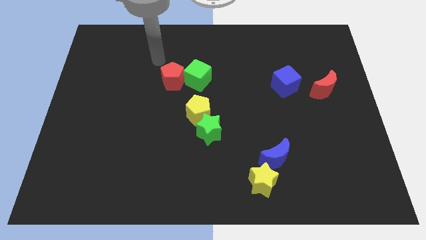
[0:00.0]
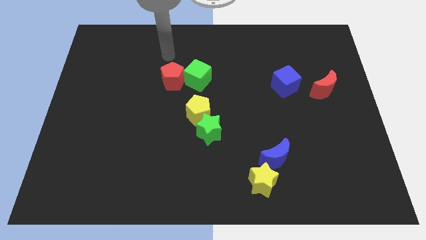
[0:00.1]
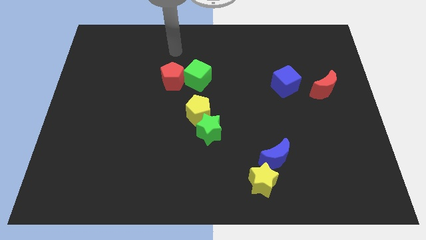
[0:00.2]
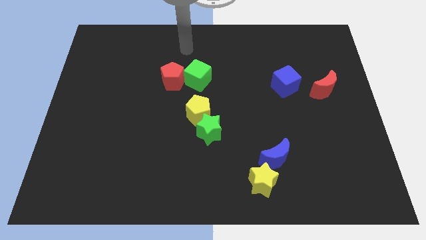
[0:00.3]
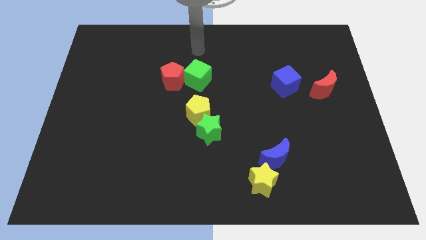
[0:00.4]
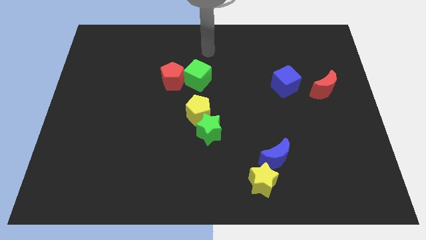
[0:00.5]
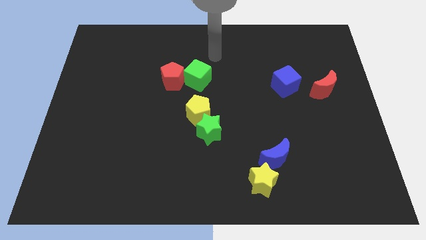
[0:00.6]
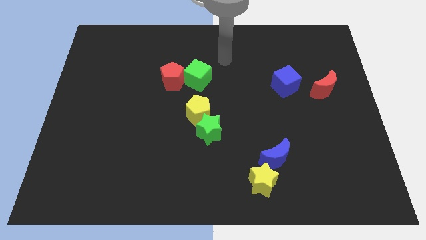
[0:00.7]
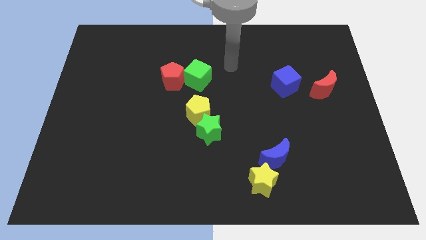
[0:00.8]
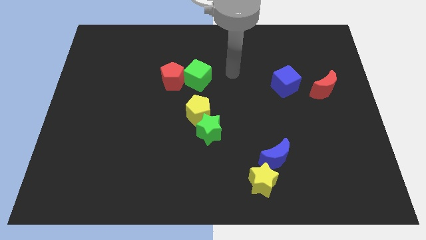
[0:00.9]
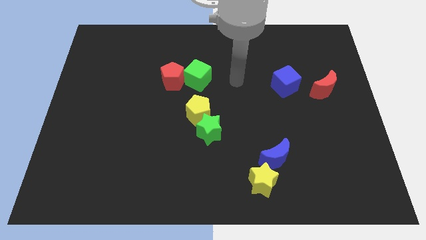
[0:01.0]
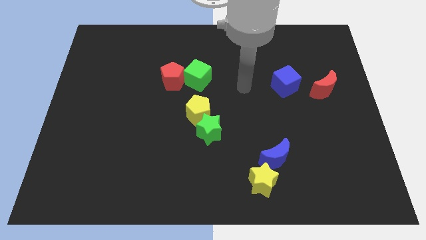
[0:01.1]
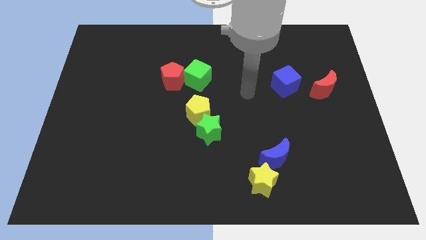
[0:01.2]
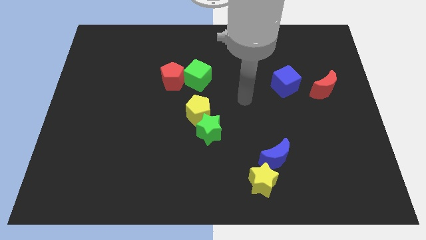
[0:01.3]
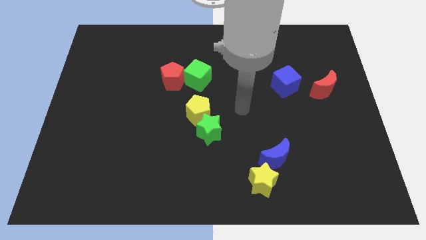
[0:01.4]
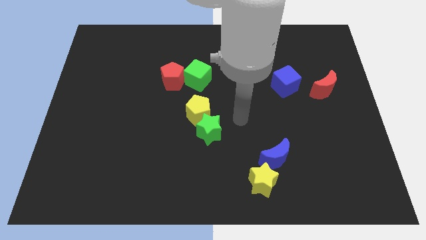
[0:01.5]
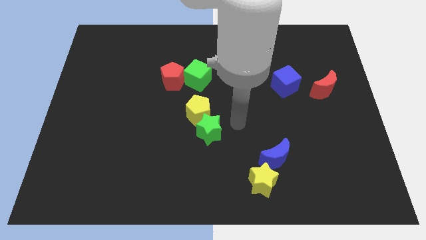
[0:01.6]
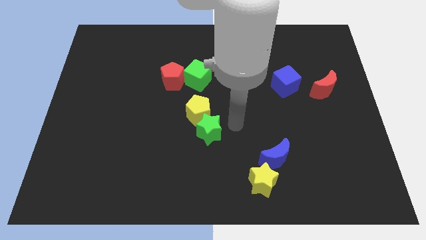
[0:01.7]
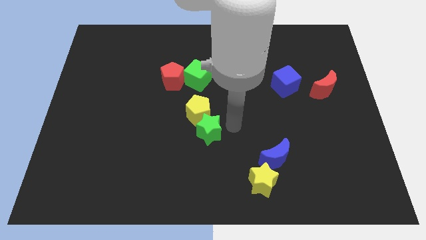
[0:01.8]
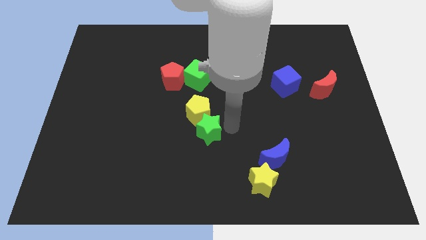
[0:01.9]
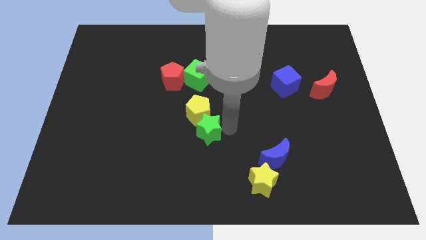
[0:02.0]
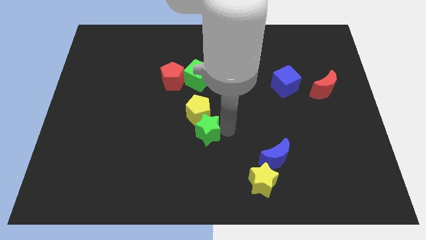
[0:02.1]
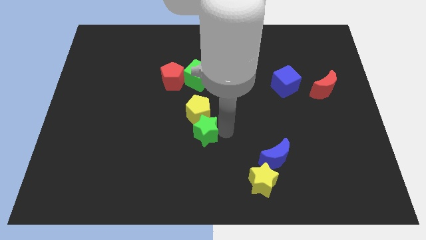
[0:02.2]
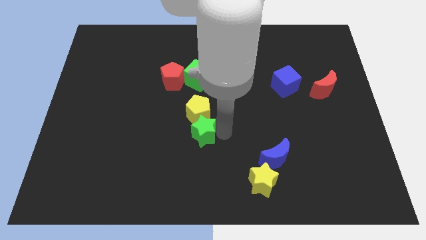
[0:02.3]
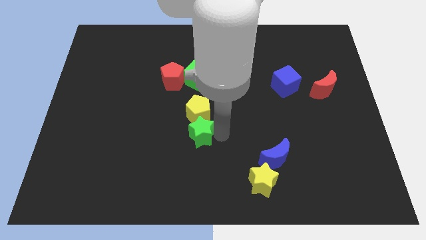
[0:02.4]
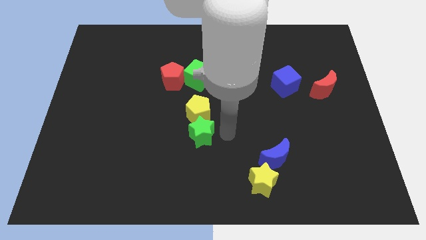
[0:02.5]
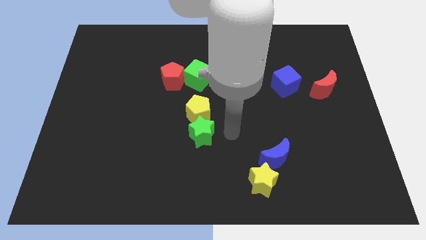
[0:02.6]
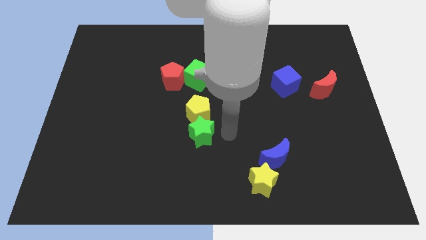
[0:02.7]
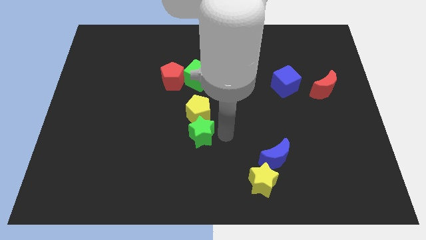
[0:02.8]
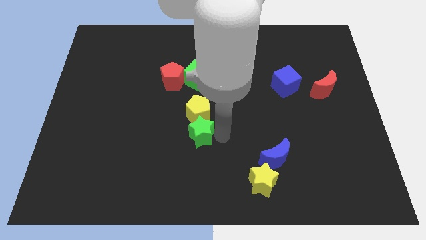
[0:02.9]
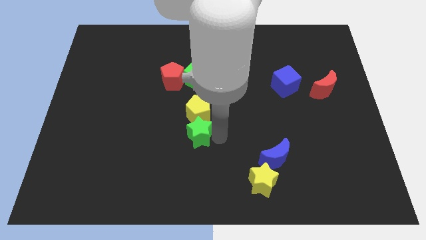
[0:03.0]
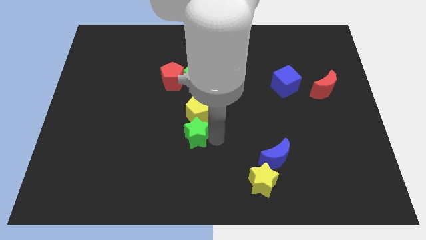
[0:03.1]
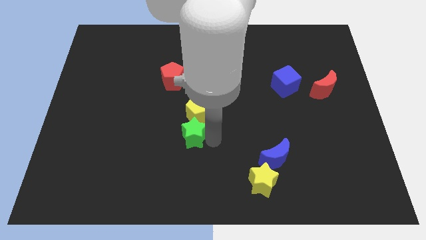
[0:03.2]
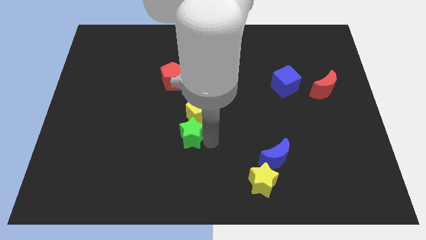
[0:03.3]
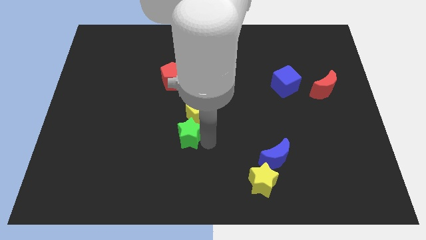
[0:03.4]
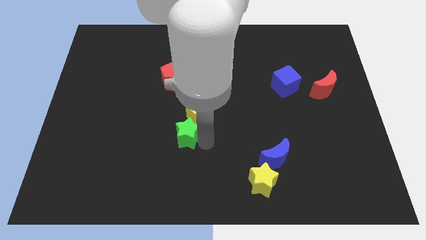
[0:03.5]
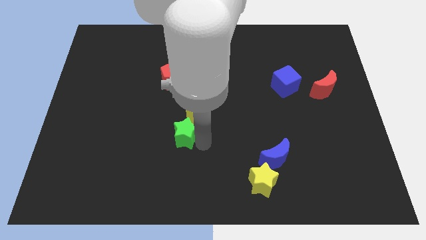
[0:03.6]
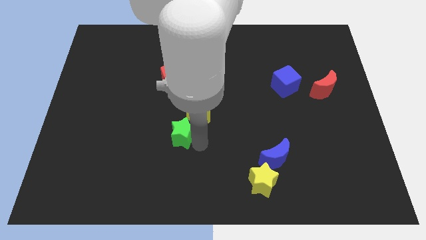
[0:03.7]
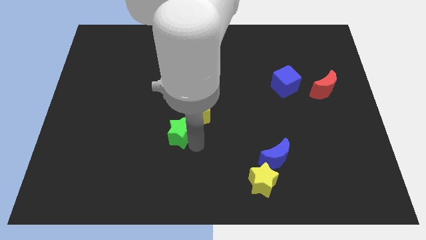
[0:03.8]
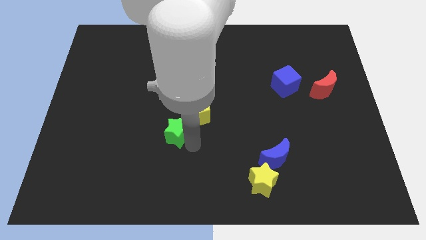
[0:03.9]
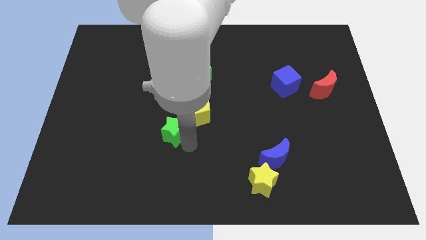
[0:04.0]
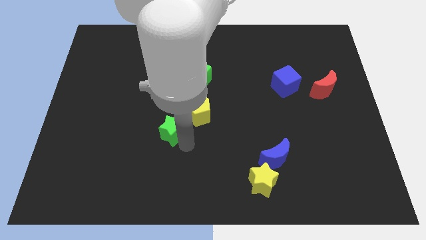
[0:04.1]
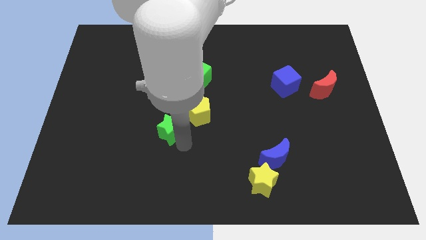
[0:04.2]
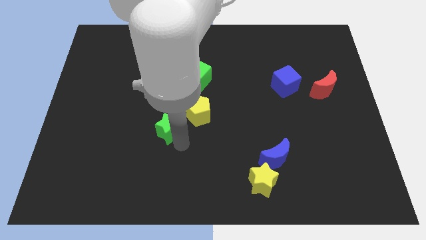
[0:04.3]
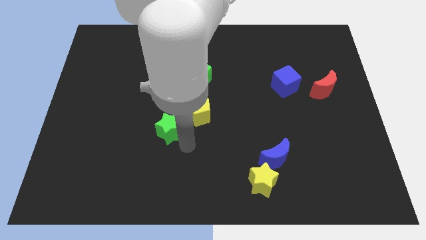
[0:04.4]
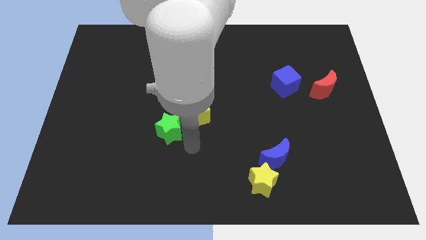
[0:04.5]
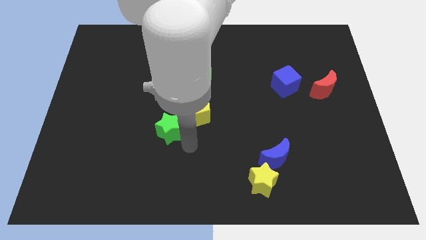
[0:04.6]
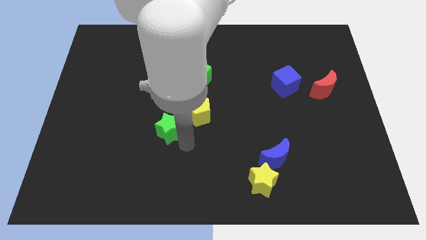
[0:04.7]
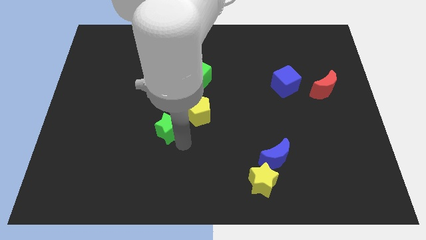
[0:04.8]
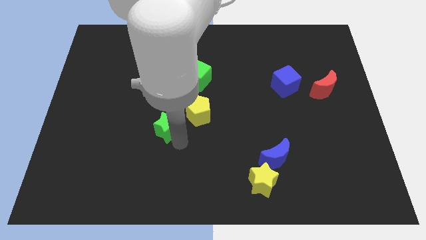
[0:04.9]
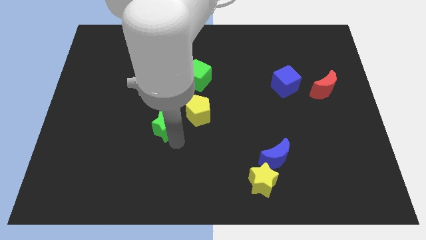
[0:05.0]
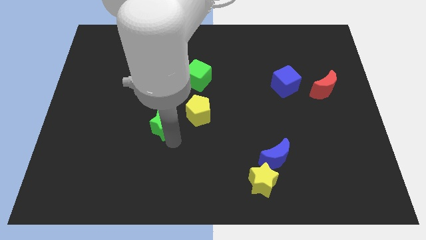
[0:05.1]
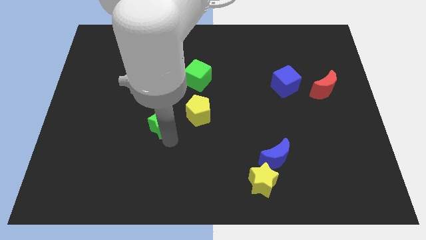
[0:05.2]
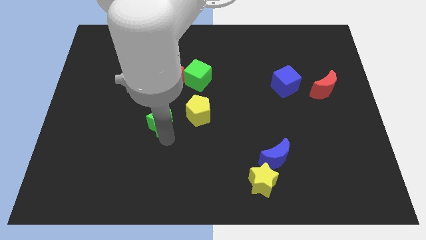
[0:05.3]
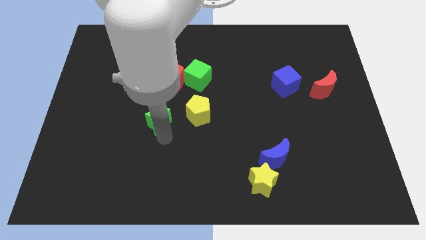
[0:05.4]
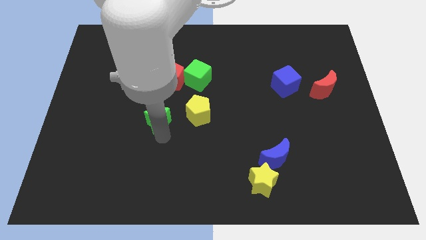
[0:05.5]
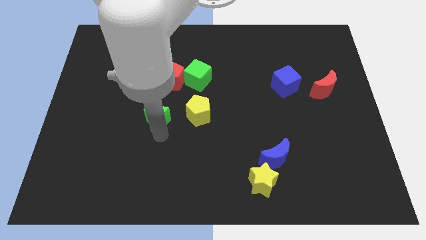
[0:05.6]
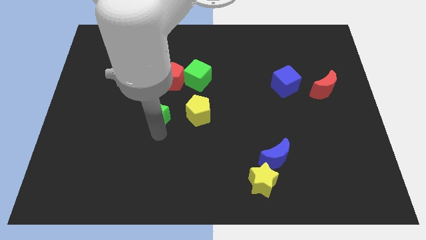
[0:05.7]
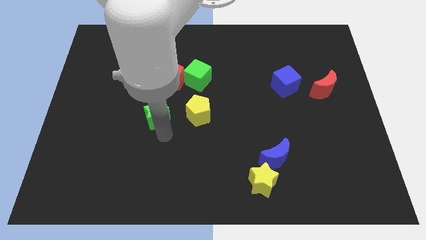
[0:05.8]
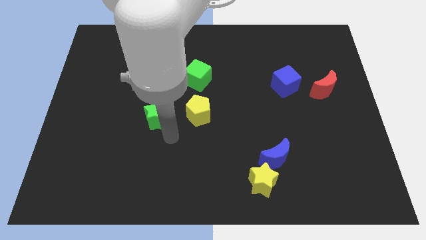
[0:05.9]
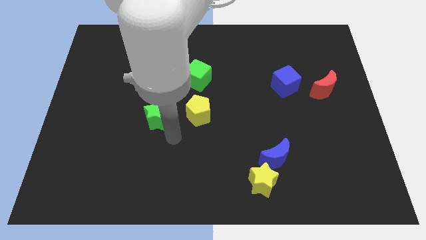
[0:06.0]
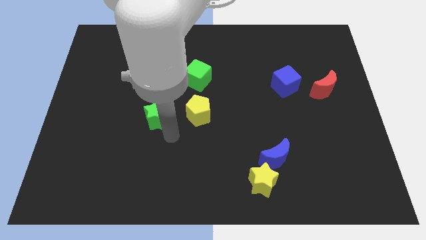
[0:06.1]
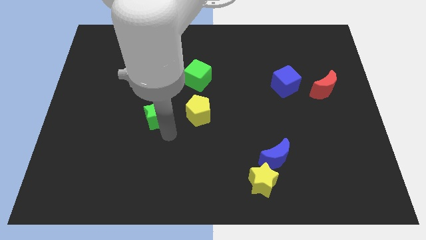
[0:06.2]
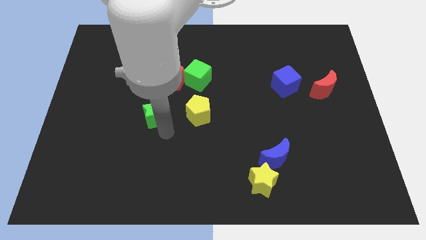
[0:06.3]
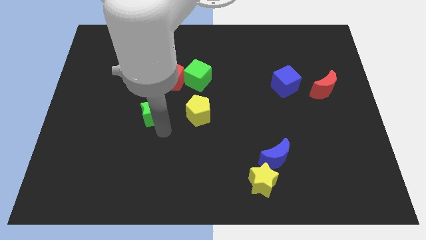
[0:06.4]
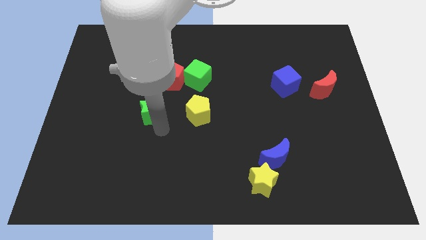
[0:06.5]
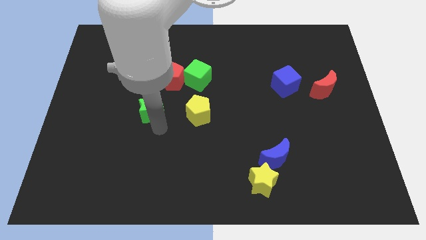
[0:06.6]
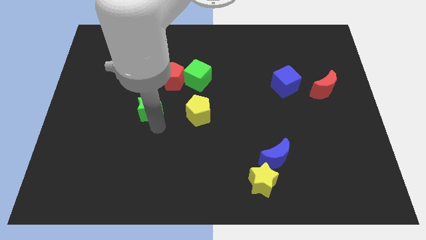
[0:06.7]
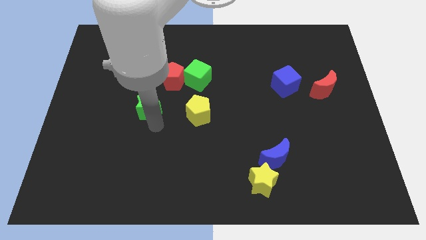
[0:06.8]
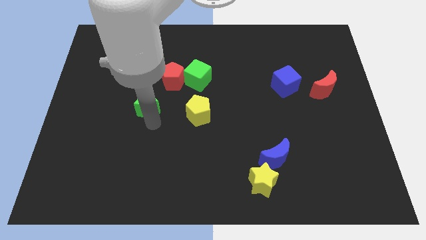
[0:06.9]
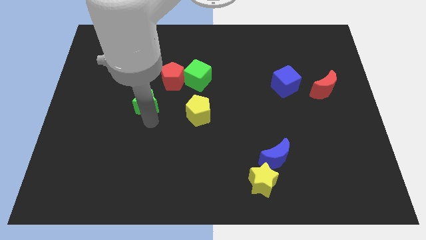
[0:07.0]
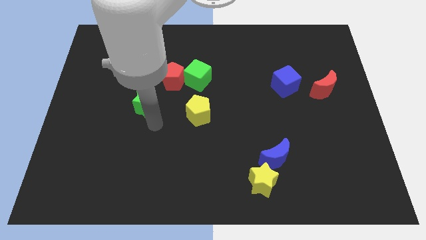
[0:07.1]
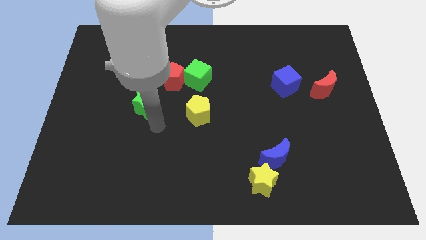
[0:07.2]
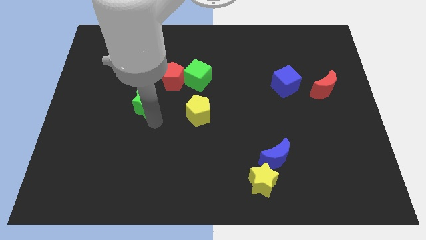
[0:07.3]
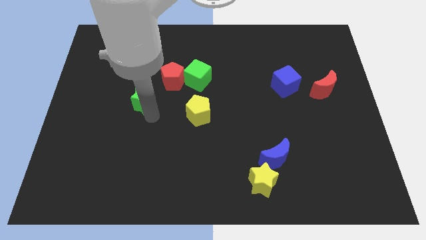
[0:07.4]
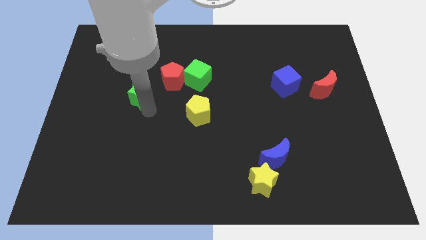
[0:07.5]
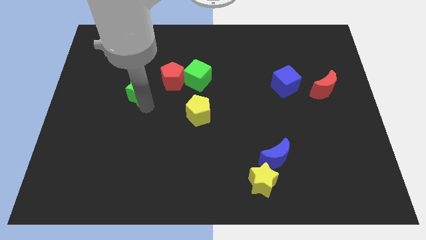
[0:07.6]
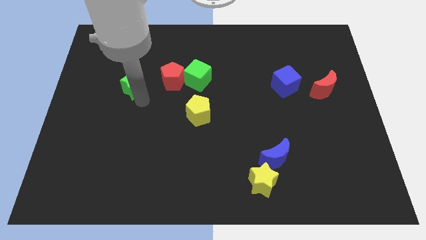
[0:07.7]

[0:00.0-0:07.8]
push the green star diagonally upwards and left
